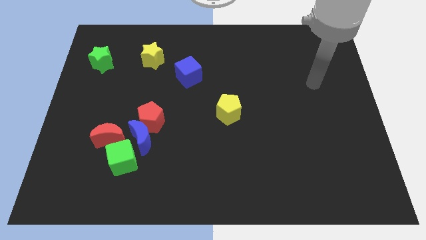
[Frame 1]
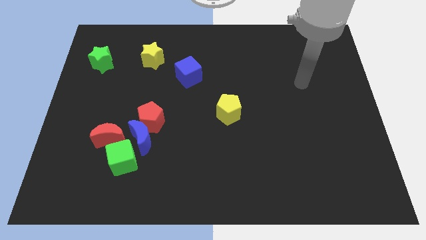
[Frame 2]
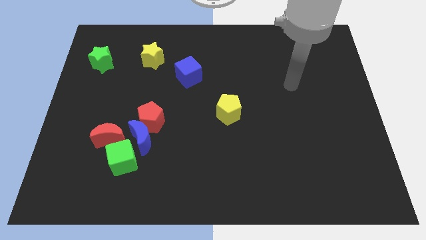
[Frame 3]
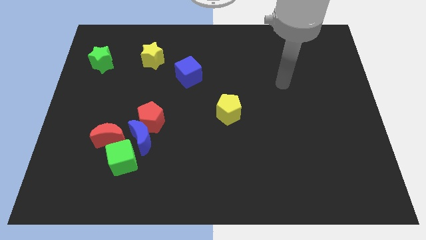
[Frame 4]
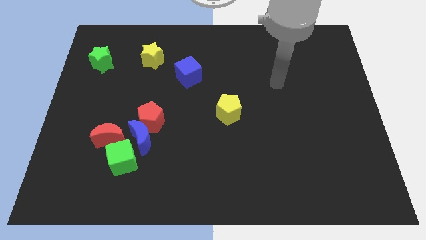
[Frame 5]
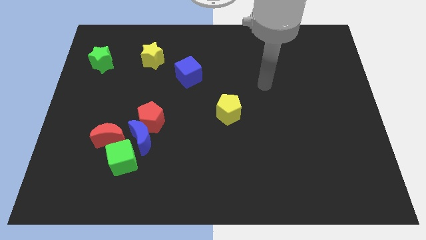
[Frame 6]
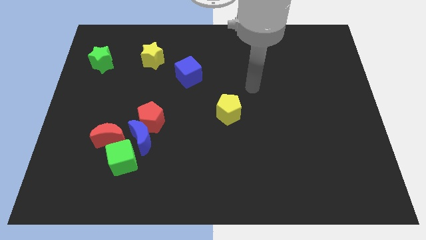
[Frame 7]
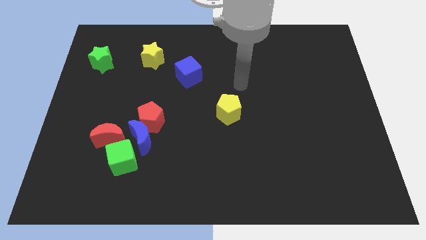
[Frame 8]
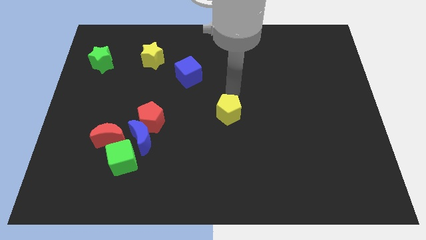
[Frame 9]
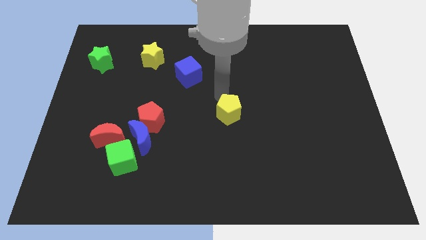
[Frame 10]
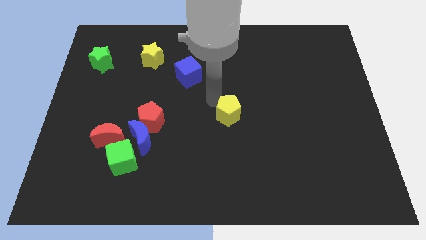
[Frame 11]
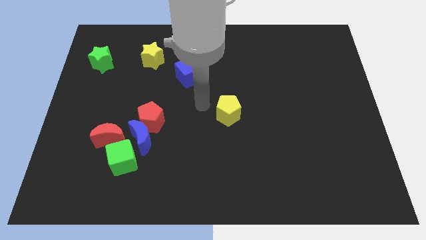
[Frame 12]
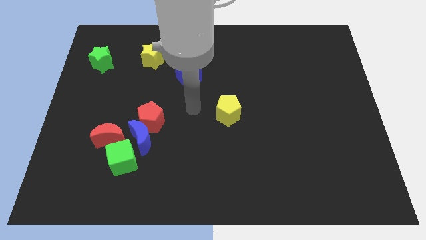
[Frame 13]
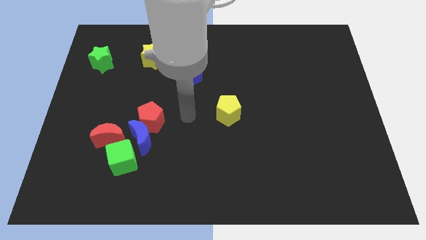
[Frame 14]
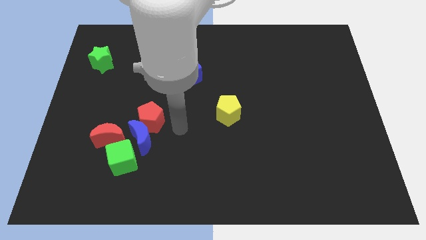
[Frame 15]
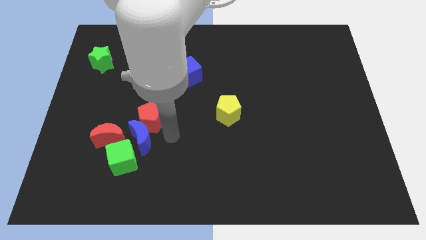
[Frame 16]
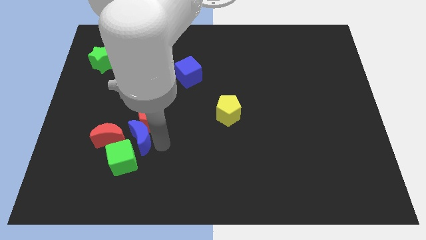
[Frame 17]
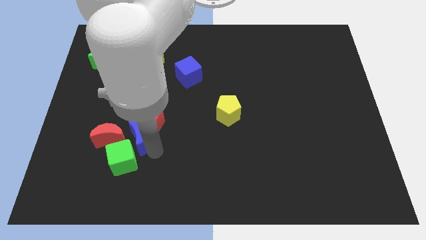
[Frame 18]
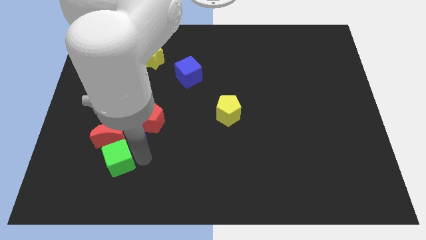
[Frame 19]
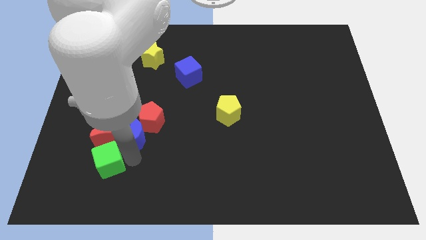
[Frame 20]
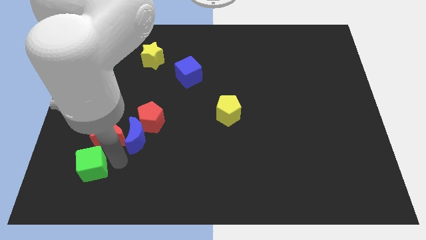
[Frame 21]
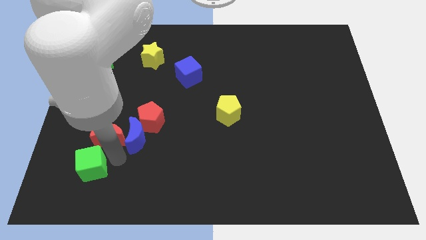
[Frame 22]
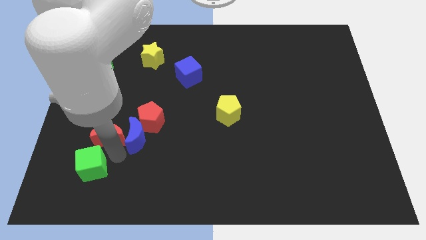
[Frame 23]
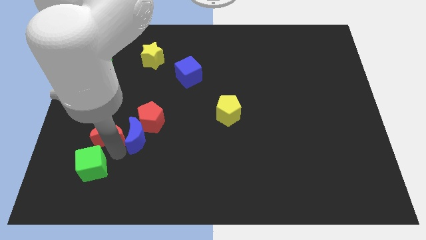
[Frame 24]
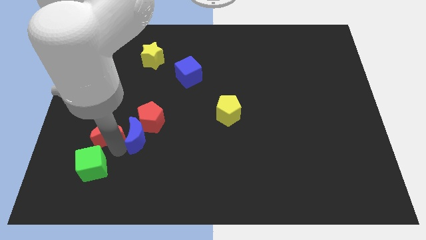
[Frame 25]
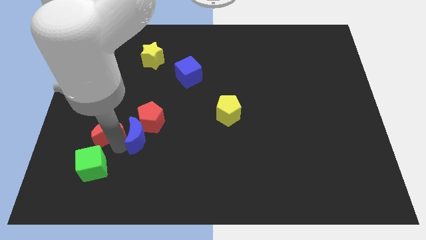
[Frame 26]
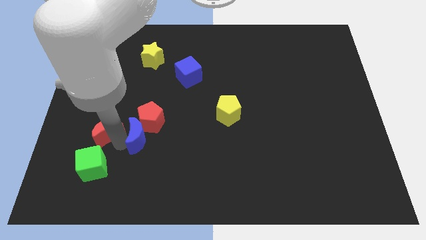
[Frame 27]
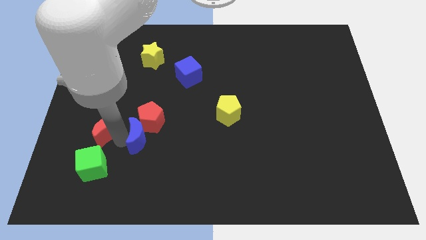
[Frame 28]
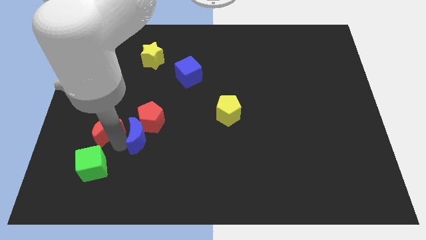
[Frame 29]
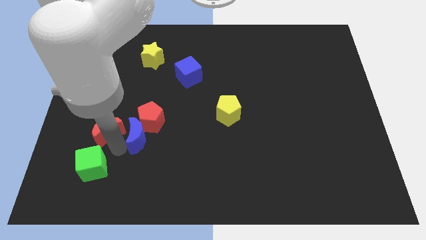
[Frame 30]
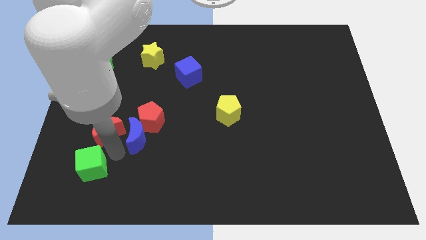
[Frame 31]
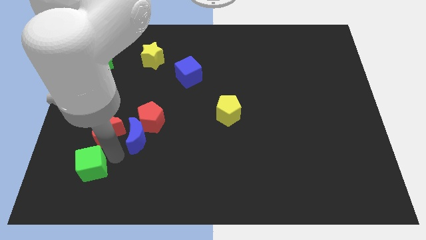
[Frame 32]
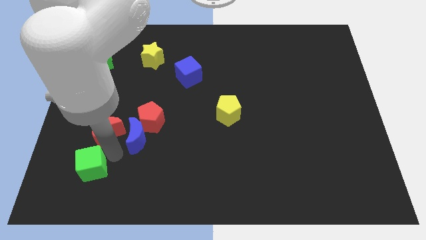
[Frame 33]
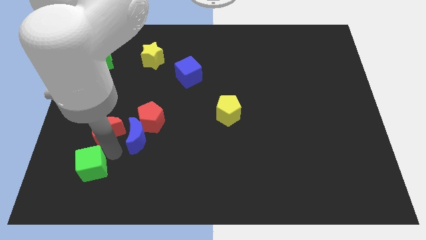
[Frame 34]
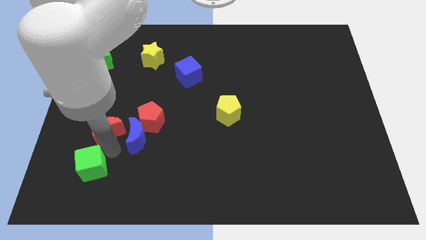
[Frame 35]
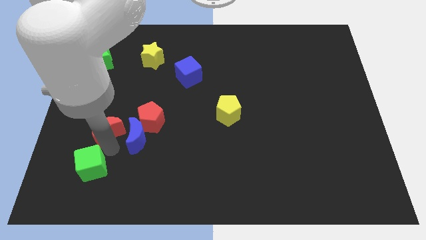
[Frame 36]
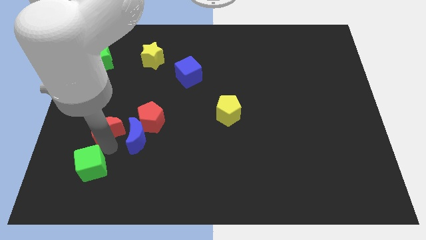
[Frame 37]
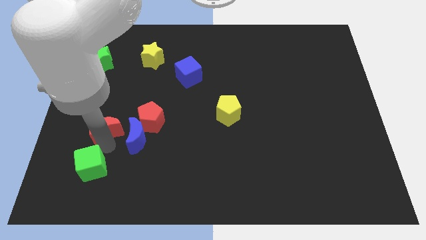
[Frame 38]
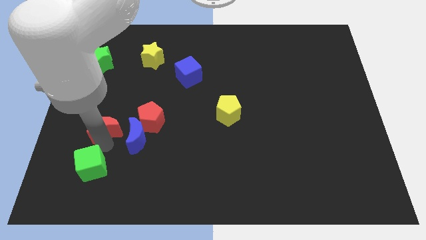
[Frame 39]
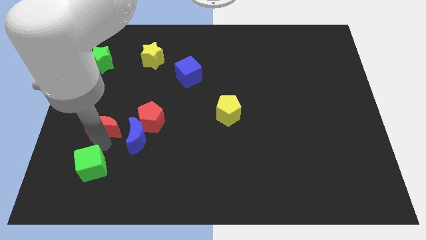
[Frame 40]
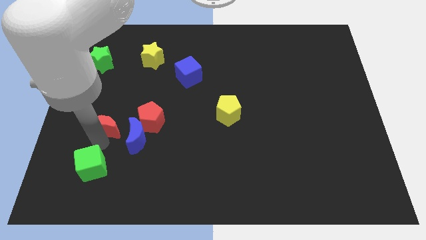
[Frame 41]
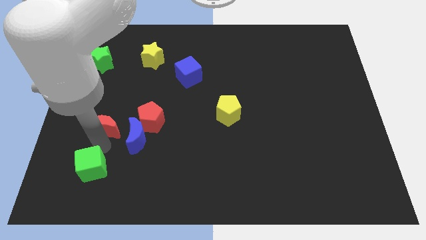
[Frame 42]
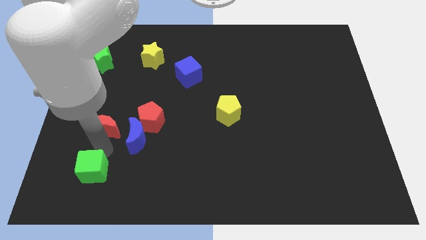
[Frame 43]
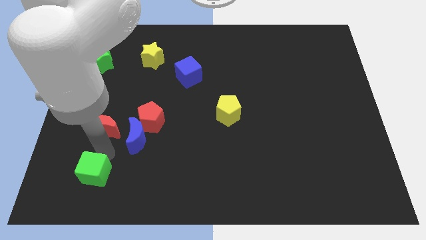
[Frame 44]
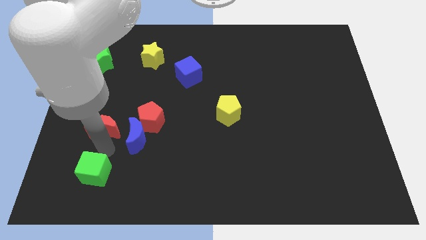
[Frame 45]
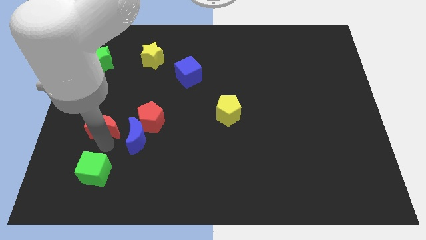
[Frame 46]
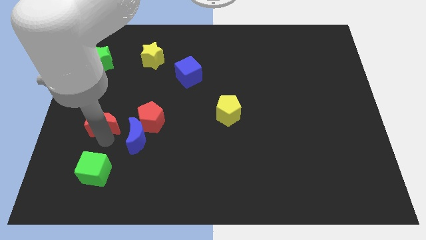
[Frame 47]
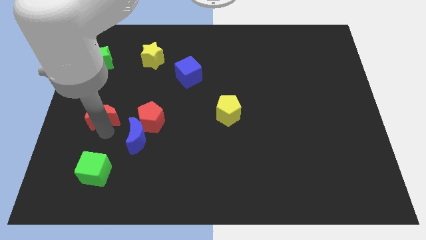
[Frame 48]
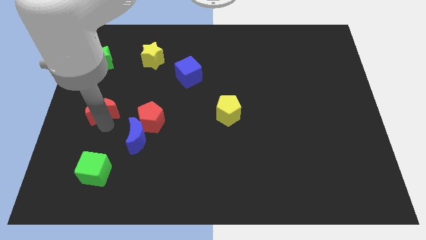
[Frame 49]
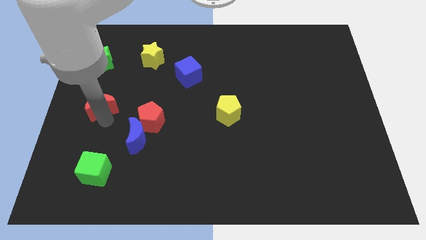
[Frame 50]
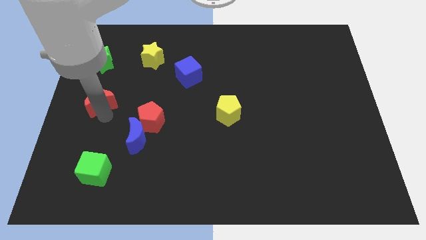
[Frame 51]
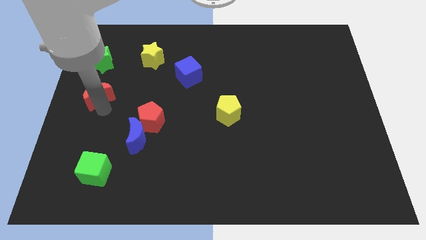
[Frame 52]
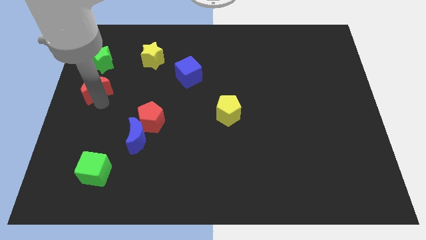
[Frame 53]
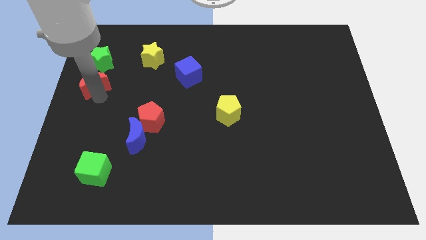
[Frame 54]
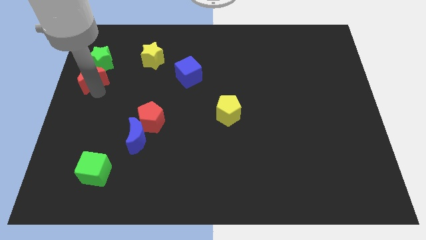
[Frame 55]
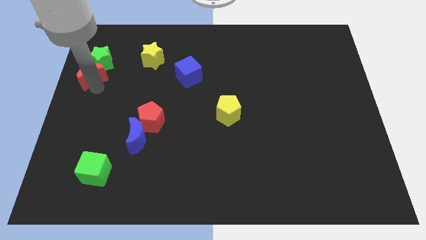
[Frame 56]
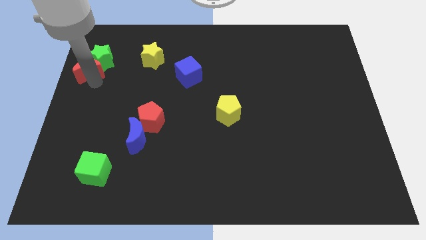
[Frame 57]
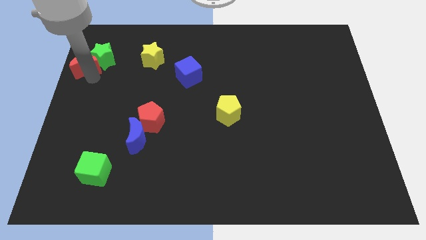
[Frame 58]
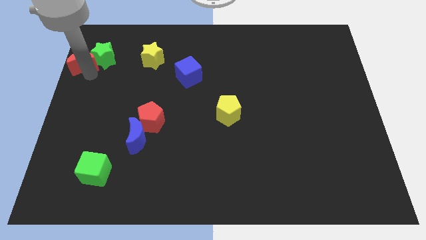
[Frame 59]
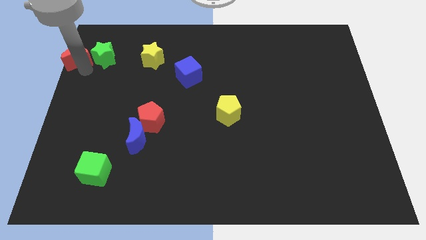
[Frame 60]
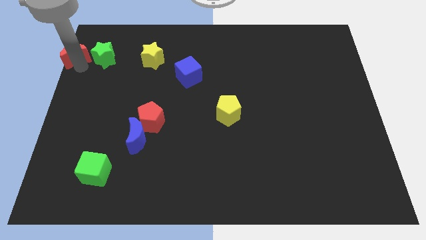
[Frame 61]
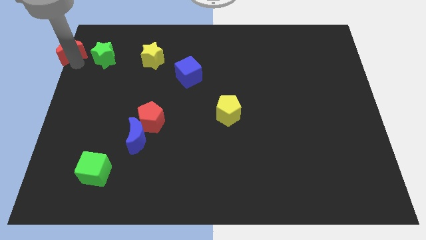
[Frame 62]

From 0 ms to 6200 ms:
push the red moon to the upper left corner

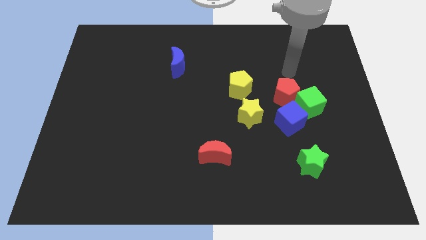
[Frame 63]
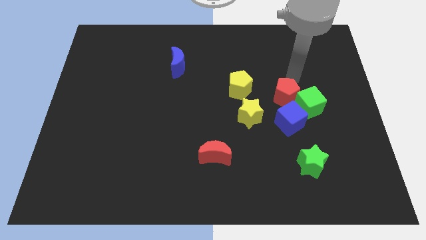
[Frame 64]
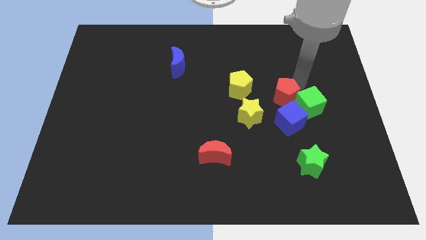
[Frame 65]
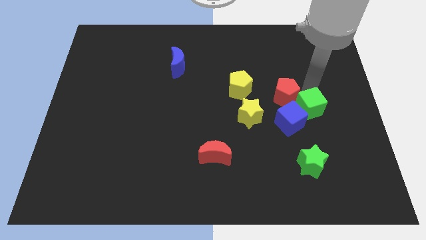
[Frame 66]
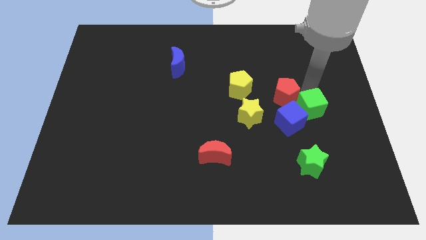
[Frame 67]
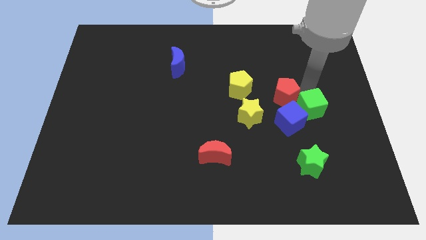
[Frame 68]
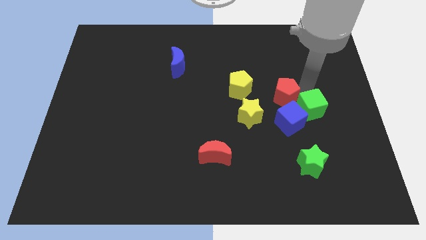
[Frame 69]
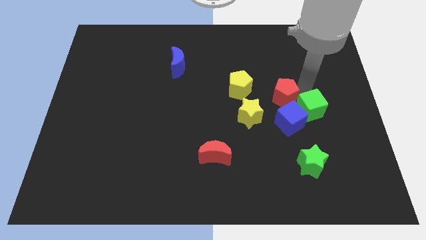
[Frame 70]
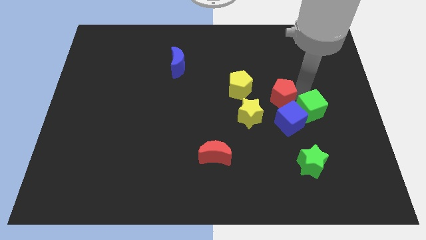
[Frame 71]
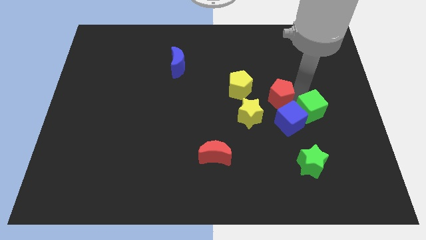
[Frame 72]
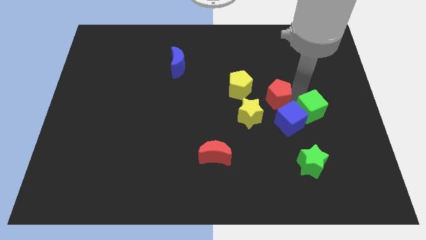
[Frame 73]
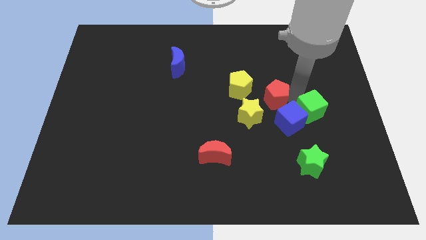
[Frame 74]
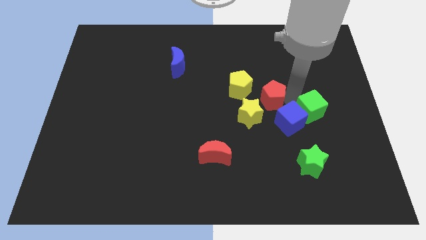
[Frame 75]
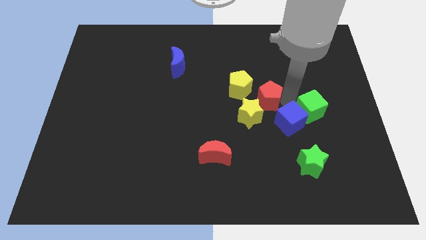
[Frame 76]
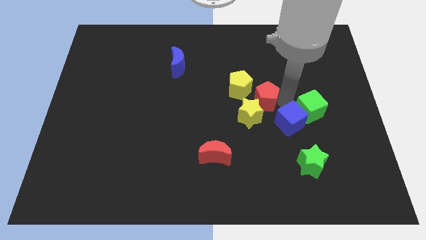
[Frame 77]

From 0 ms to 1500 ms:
put the red pentagon to the middle
